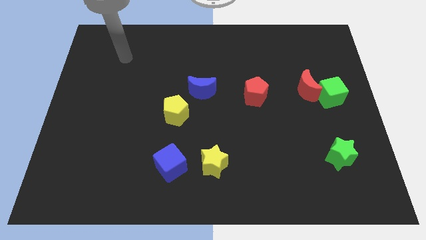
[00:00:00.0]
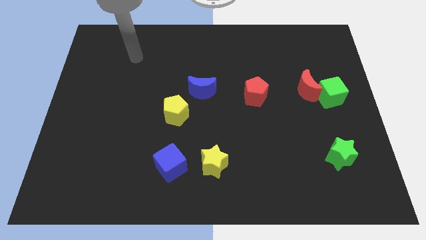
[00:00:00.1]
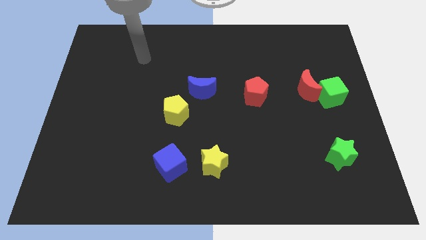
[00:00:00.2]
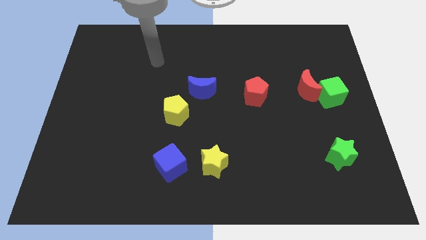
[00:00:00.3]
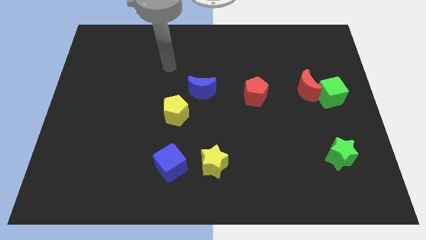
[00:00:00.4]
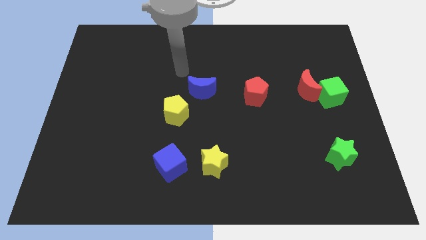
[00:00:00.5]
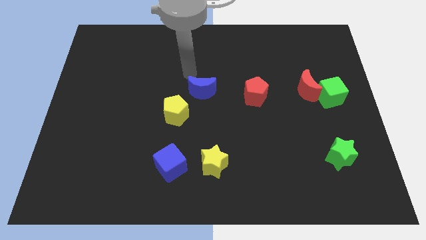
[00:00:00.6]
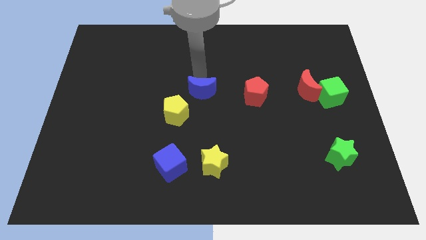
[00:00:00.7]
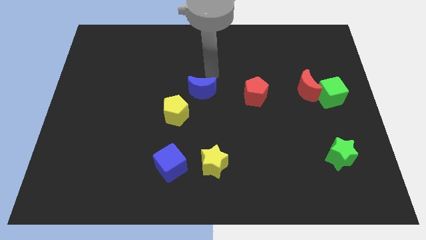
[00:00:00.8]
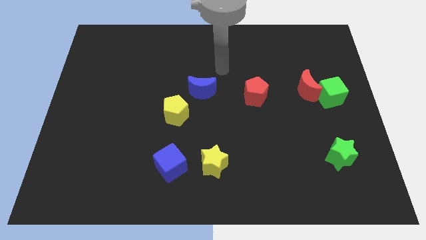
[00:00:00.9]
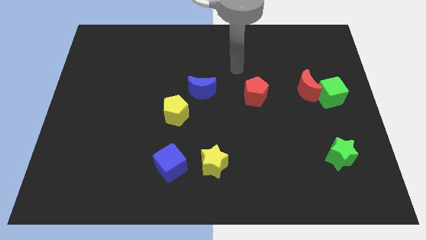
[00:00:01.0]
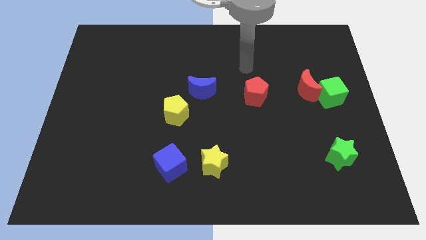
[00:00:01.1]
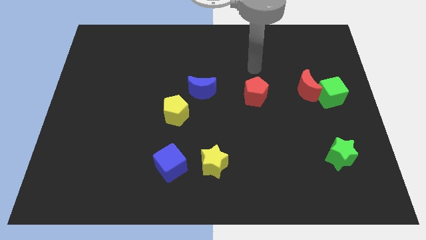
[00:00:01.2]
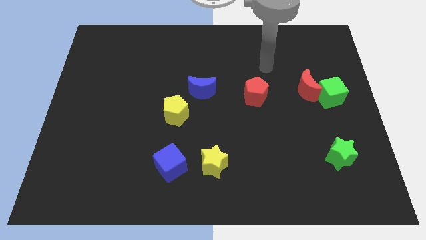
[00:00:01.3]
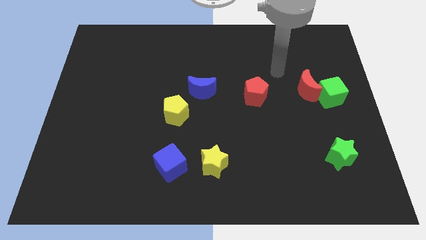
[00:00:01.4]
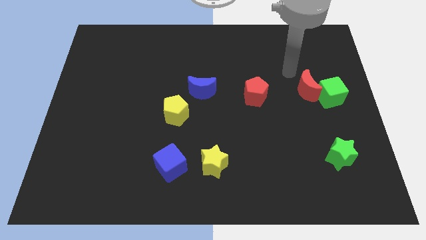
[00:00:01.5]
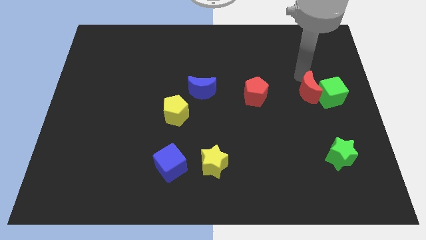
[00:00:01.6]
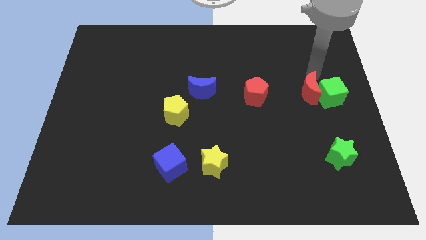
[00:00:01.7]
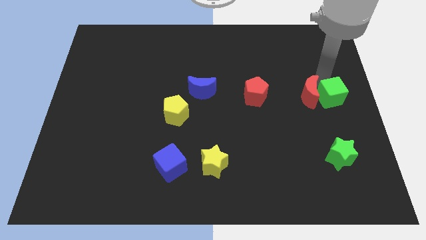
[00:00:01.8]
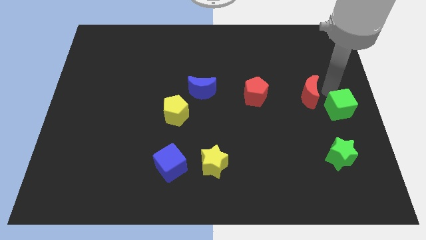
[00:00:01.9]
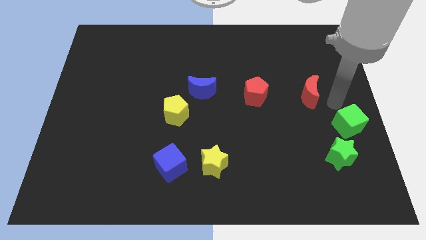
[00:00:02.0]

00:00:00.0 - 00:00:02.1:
separate the red moon from the green cube

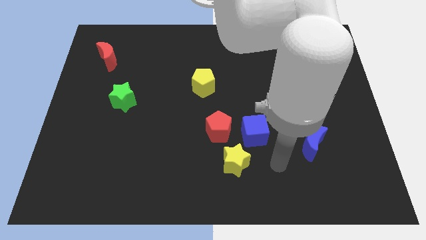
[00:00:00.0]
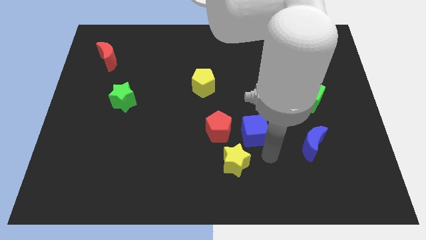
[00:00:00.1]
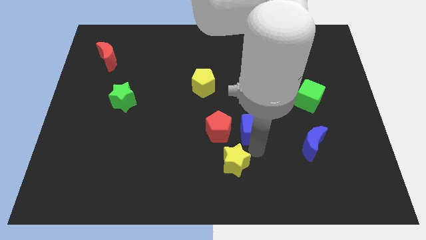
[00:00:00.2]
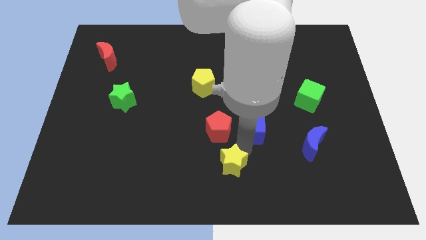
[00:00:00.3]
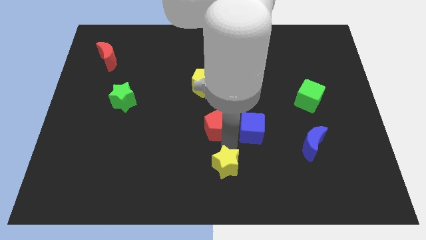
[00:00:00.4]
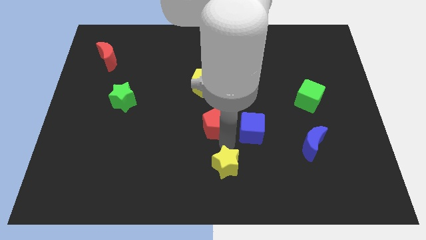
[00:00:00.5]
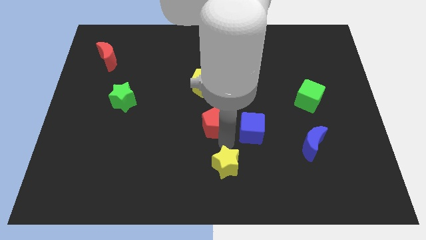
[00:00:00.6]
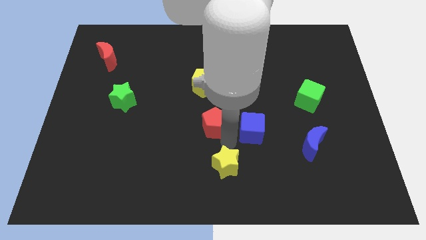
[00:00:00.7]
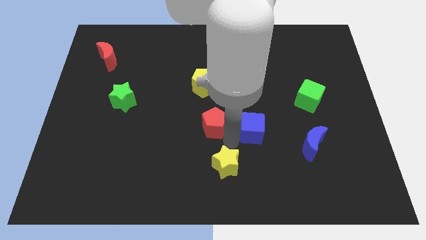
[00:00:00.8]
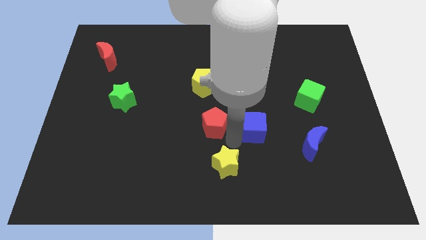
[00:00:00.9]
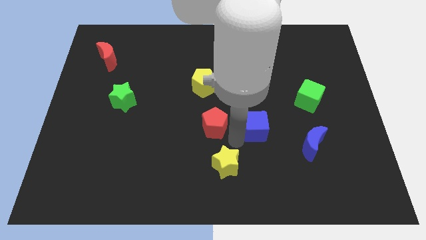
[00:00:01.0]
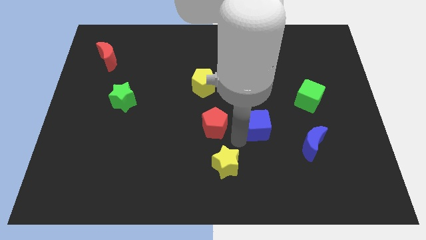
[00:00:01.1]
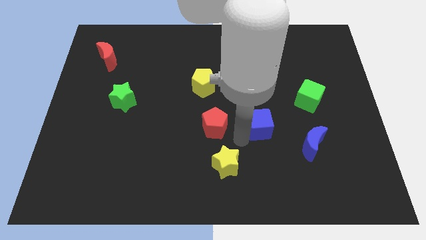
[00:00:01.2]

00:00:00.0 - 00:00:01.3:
separate the blue cube from the red pentagon and yellow star

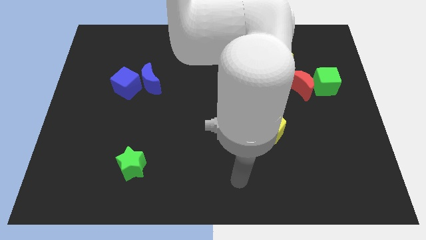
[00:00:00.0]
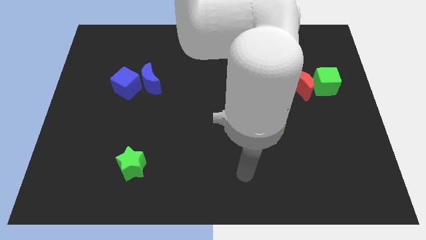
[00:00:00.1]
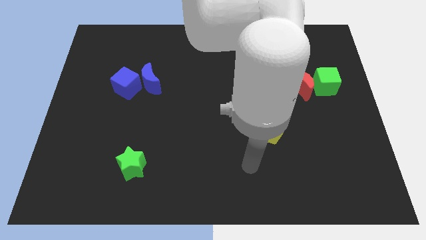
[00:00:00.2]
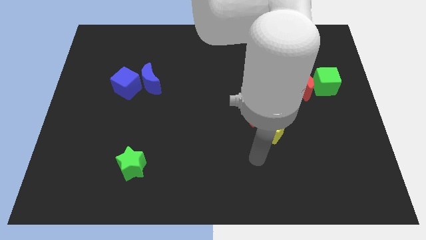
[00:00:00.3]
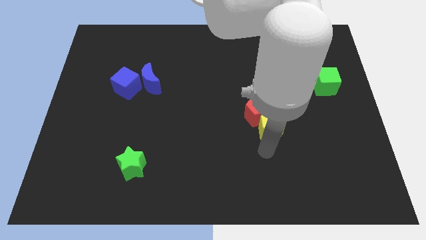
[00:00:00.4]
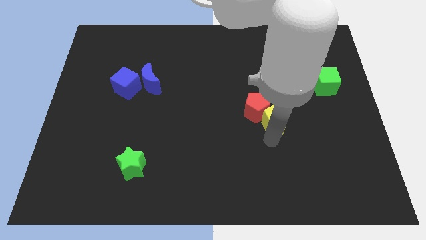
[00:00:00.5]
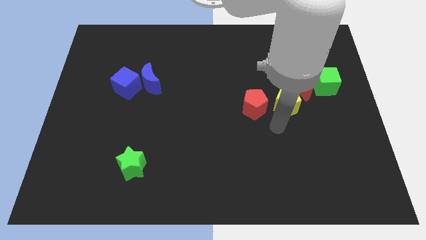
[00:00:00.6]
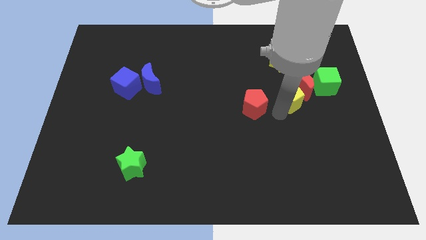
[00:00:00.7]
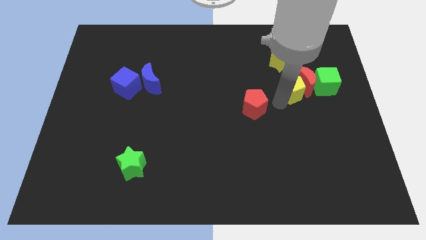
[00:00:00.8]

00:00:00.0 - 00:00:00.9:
move the red pentagon away from the yellow pentagon

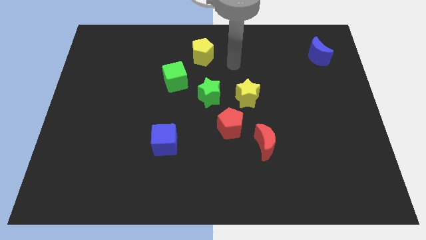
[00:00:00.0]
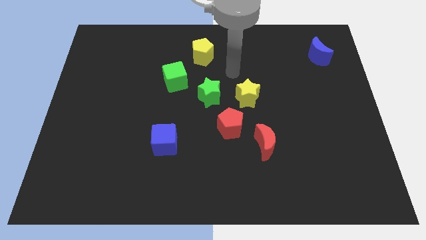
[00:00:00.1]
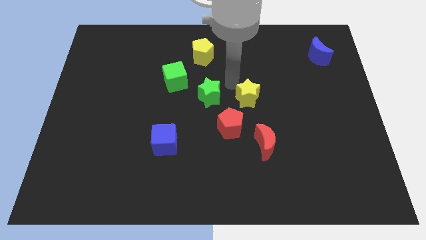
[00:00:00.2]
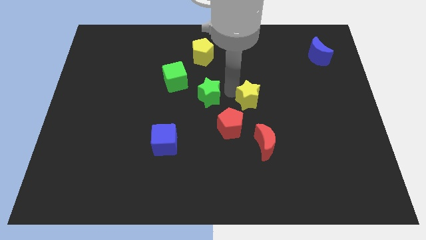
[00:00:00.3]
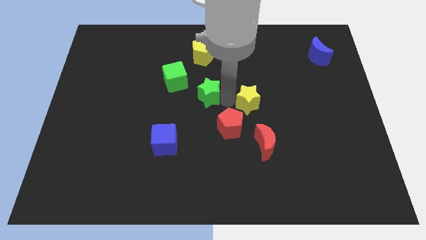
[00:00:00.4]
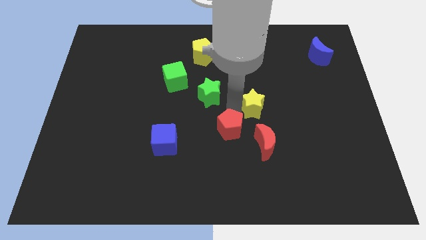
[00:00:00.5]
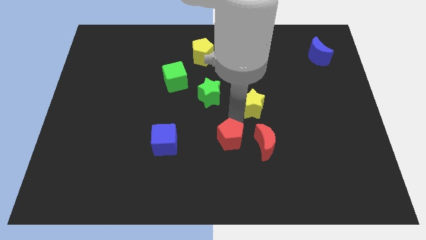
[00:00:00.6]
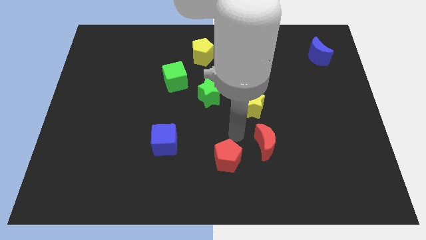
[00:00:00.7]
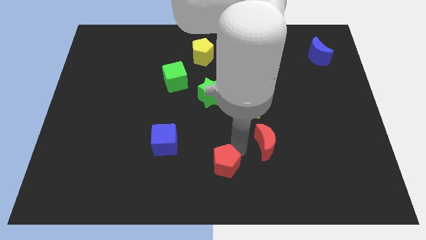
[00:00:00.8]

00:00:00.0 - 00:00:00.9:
pull the red moon apart from the red pentagon

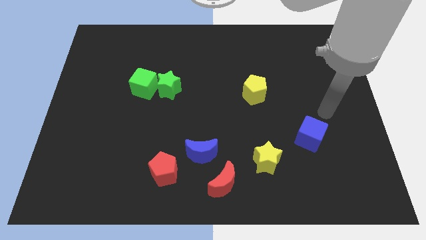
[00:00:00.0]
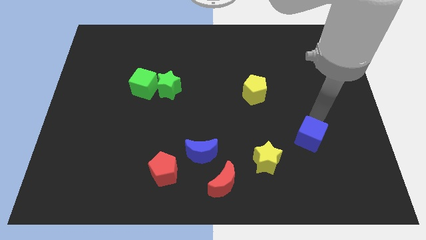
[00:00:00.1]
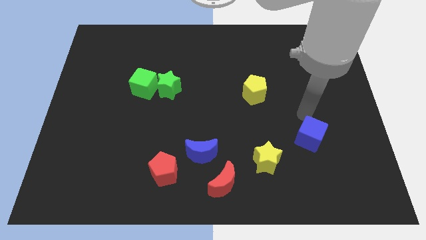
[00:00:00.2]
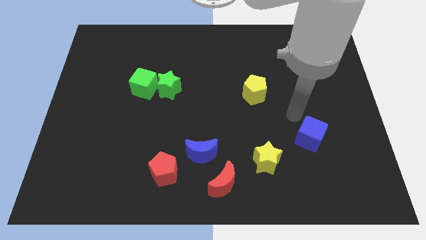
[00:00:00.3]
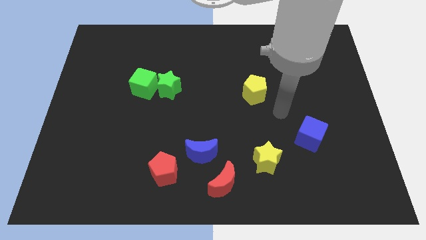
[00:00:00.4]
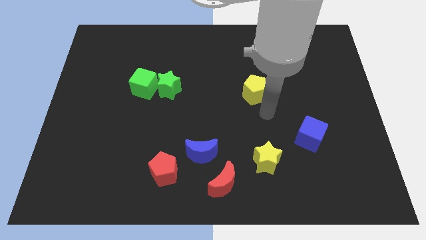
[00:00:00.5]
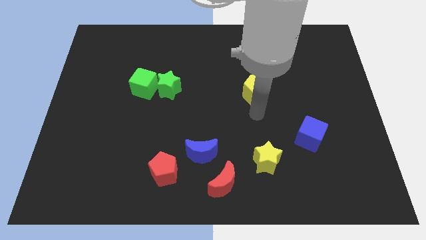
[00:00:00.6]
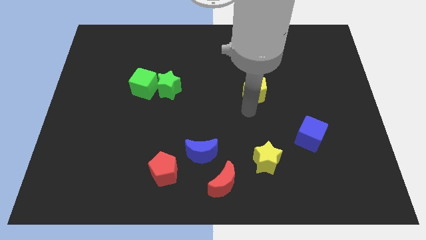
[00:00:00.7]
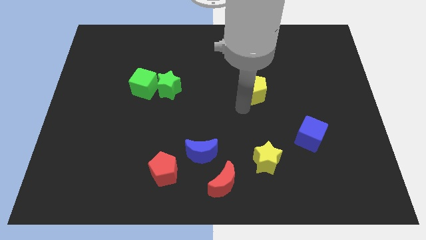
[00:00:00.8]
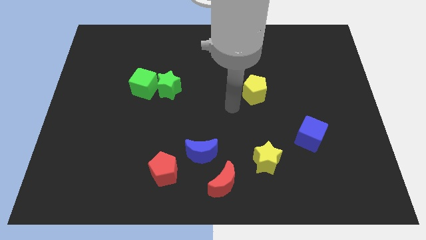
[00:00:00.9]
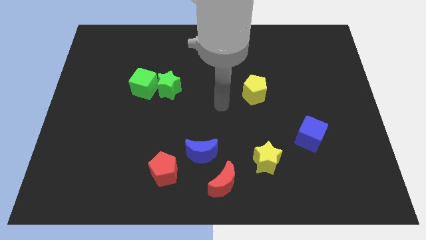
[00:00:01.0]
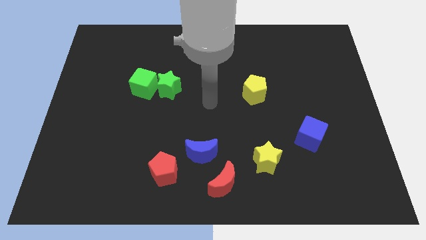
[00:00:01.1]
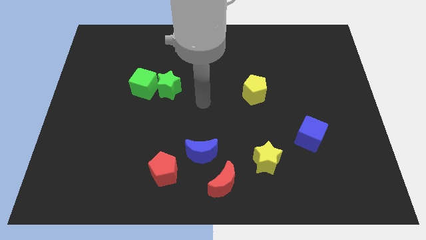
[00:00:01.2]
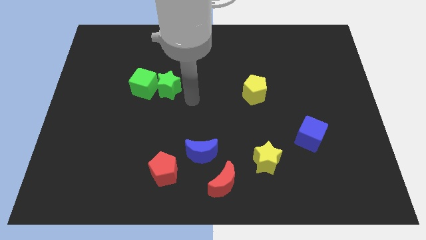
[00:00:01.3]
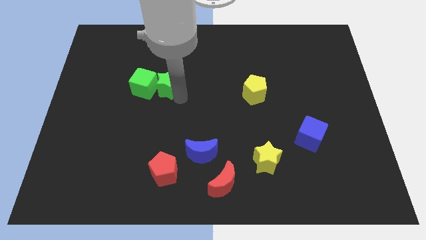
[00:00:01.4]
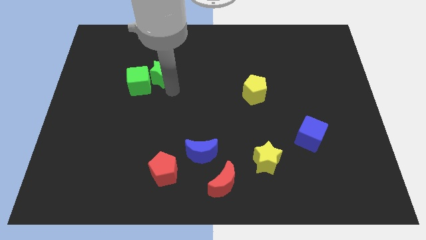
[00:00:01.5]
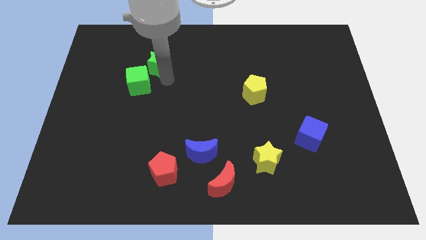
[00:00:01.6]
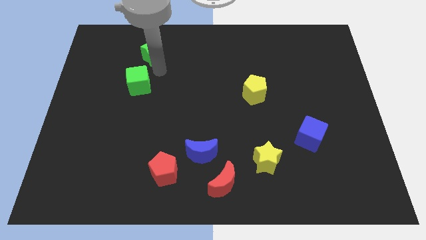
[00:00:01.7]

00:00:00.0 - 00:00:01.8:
move the green cube away from the green star

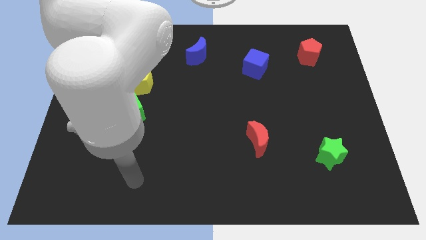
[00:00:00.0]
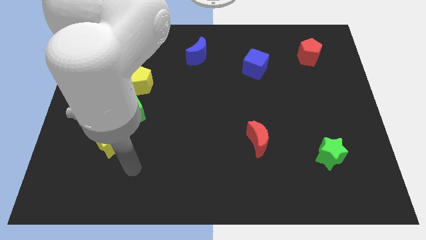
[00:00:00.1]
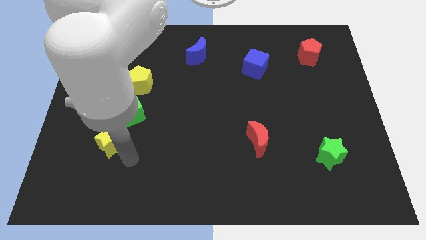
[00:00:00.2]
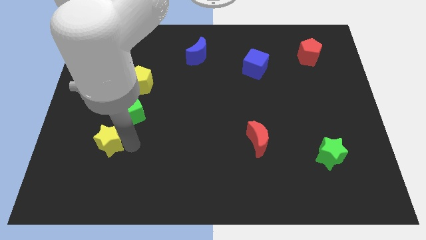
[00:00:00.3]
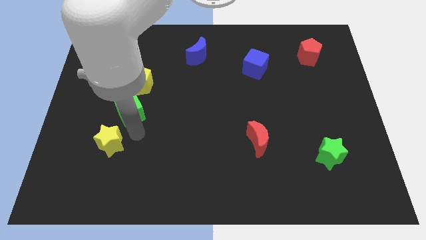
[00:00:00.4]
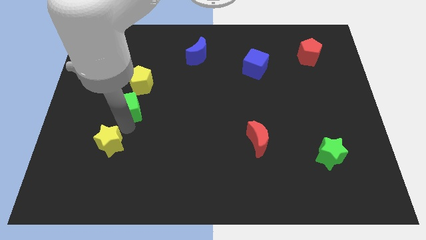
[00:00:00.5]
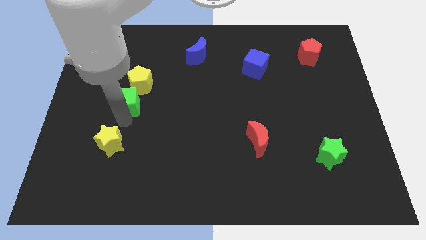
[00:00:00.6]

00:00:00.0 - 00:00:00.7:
move the yellow star away from the green cube

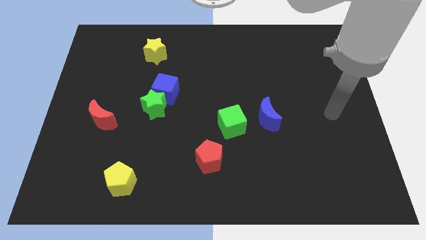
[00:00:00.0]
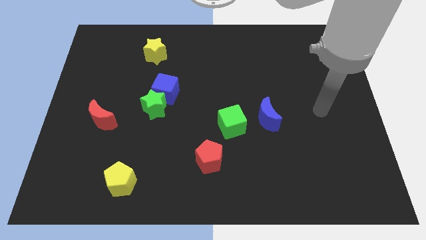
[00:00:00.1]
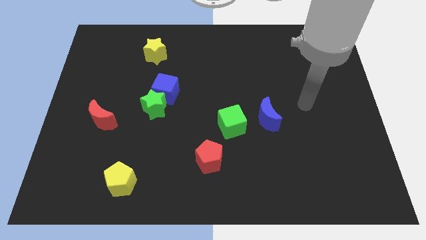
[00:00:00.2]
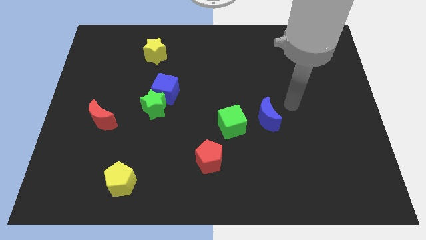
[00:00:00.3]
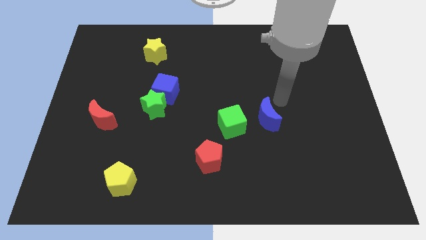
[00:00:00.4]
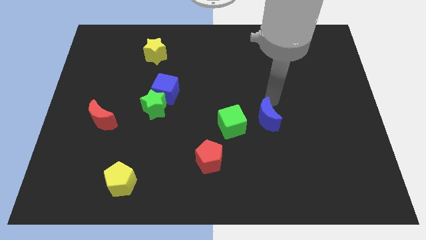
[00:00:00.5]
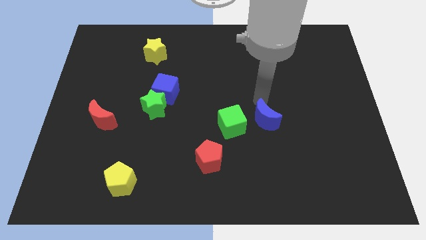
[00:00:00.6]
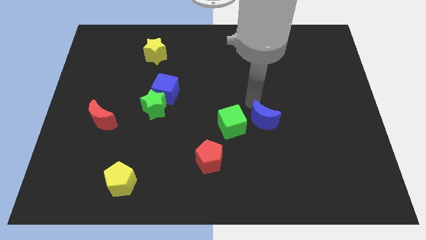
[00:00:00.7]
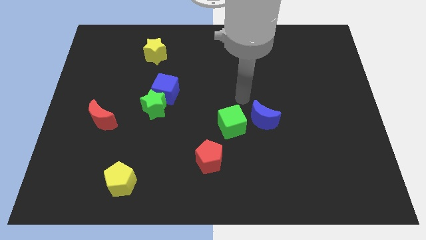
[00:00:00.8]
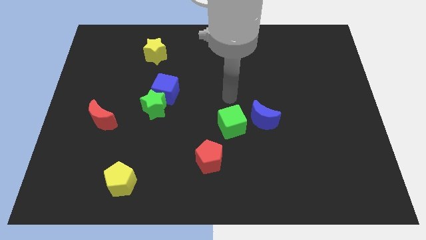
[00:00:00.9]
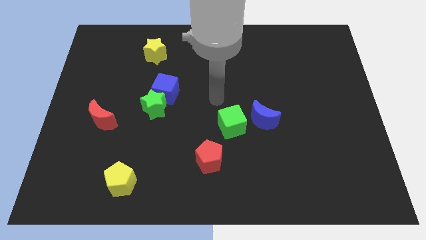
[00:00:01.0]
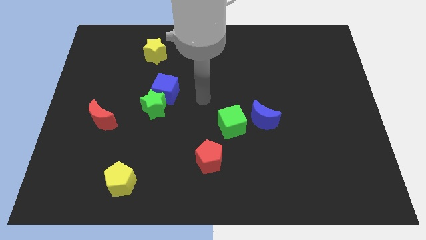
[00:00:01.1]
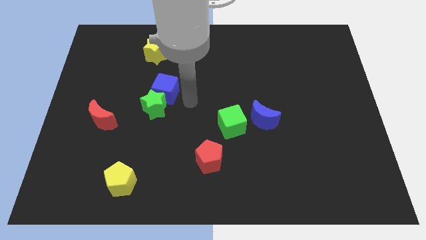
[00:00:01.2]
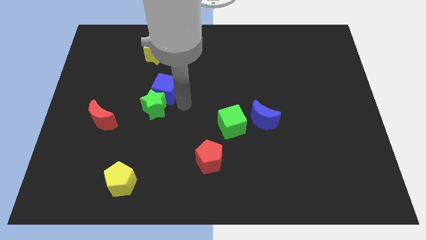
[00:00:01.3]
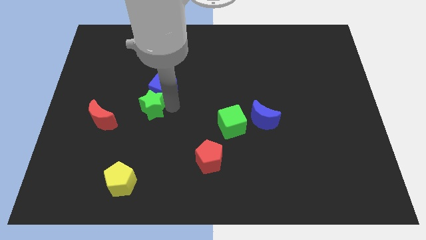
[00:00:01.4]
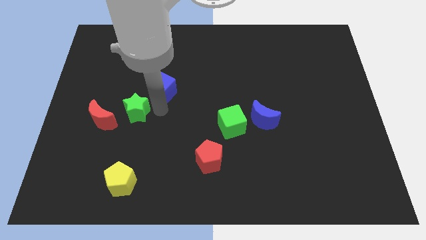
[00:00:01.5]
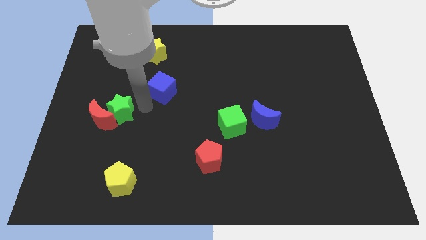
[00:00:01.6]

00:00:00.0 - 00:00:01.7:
pull the blue cube apart from the green star
